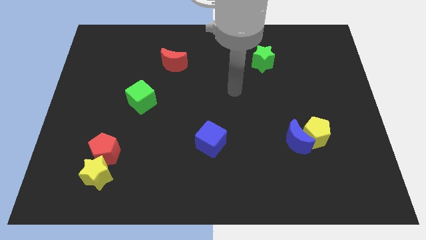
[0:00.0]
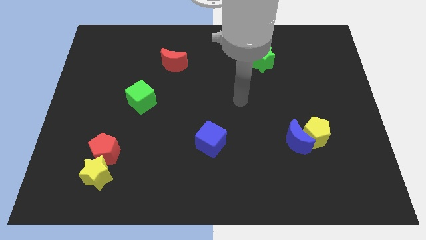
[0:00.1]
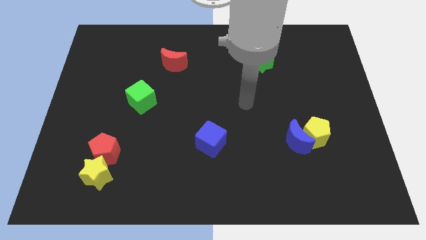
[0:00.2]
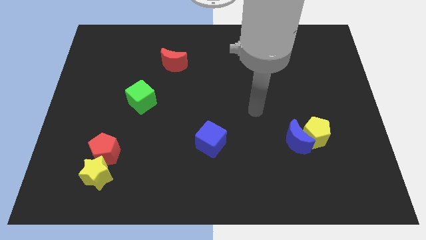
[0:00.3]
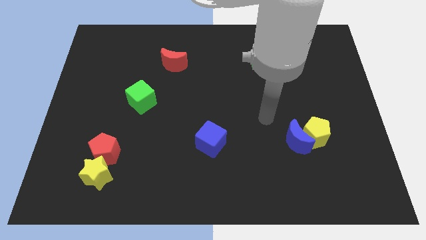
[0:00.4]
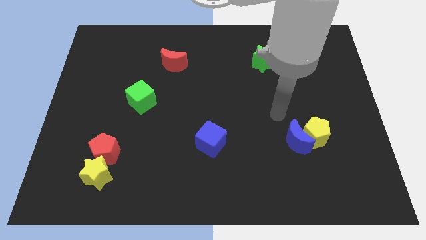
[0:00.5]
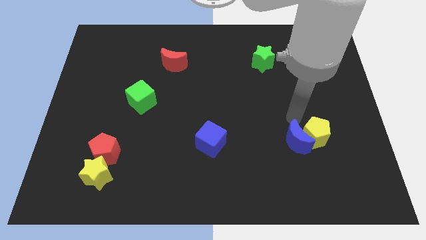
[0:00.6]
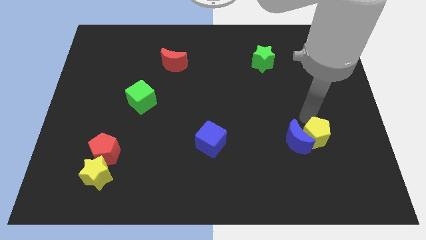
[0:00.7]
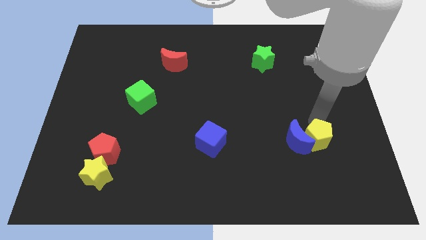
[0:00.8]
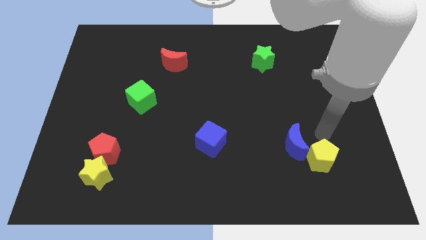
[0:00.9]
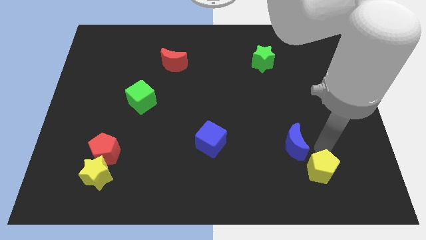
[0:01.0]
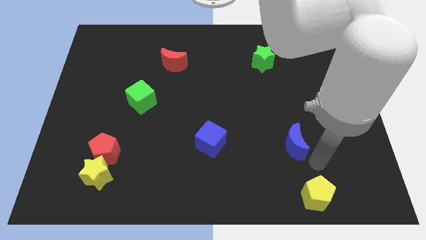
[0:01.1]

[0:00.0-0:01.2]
move the blue moon away from the yellow pentagon

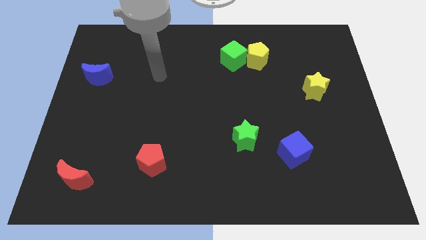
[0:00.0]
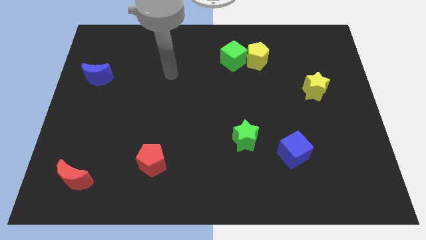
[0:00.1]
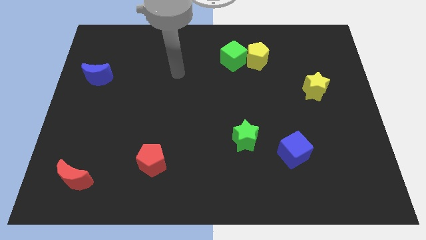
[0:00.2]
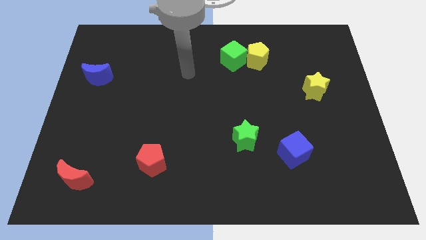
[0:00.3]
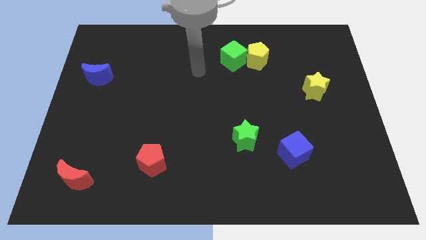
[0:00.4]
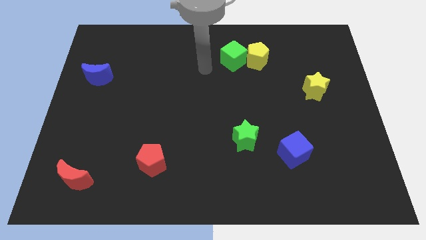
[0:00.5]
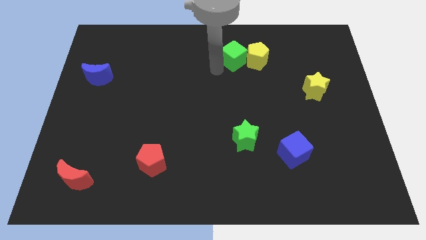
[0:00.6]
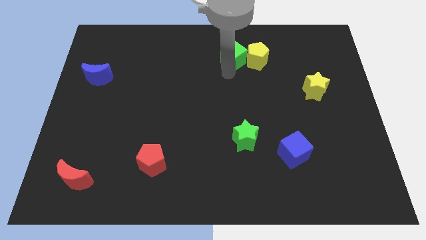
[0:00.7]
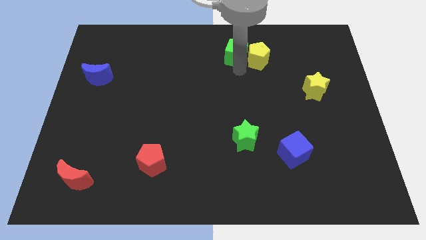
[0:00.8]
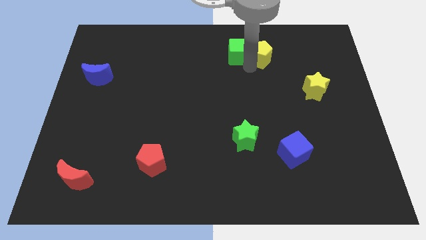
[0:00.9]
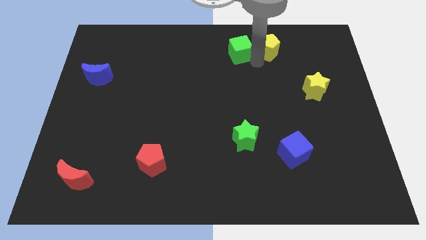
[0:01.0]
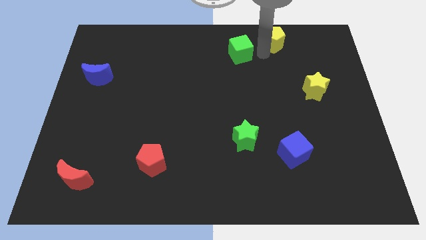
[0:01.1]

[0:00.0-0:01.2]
separate the green cube from the yellow pentagon

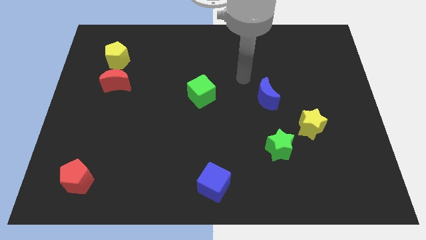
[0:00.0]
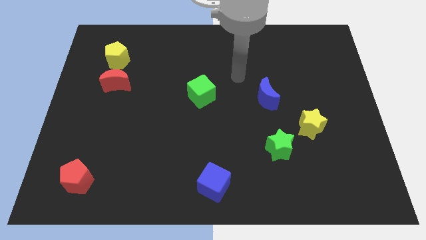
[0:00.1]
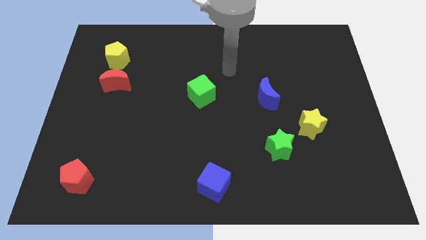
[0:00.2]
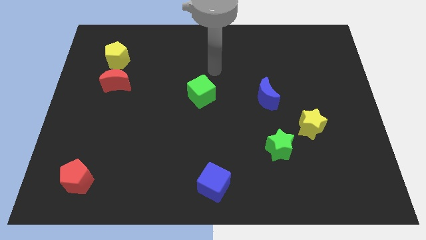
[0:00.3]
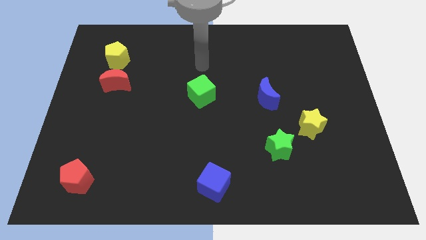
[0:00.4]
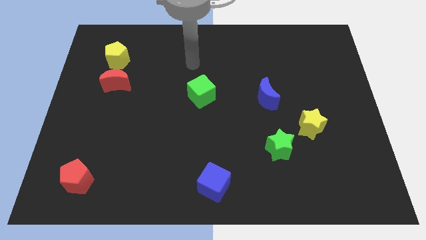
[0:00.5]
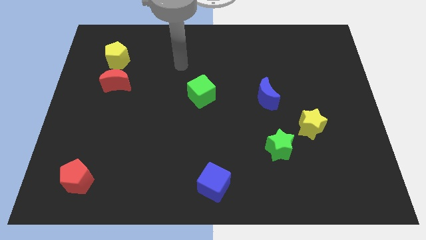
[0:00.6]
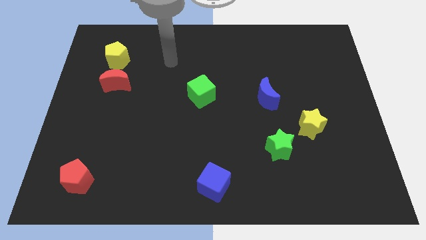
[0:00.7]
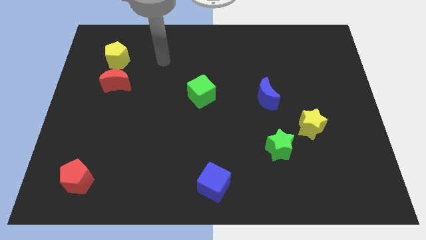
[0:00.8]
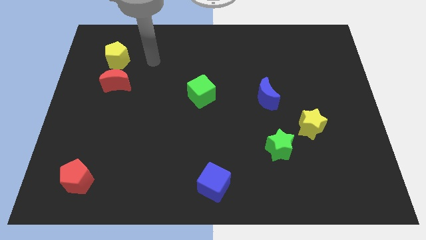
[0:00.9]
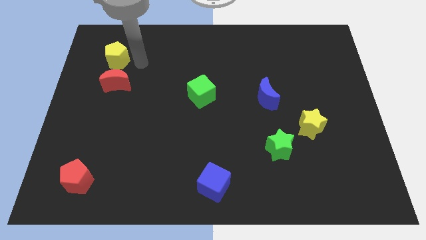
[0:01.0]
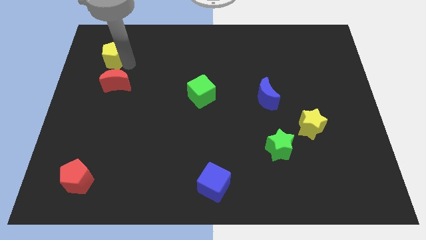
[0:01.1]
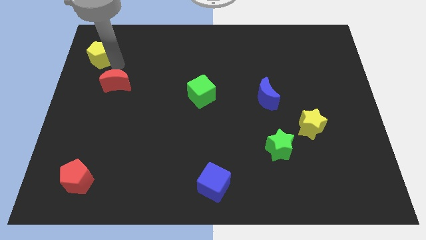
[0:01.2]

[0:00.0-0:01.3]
move the red moon away from the yellow pentagon

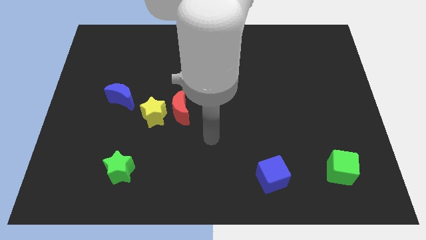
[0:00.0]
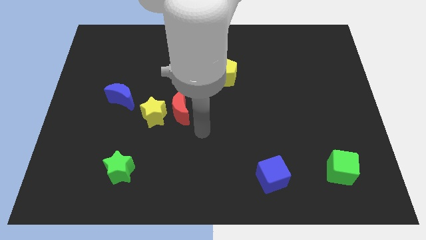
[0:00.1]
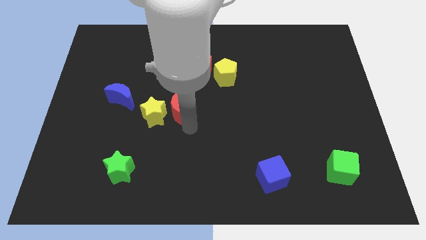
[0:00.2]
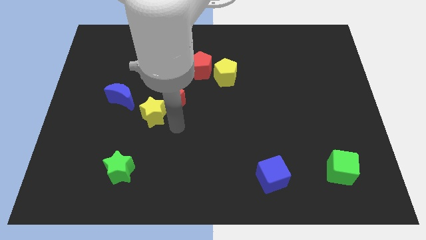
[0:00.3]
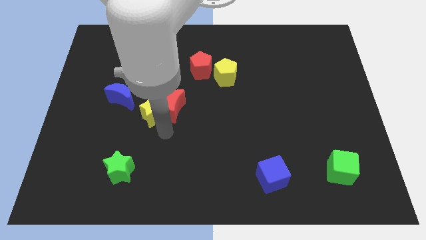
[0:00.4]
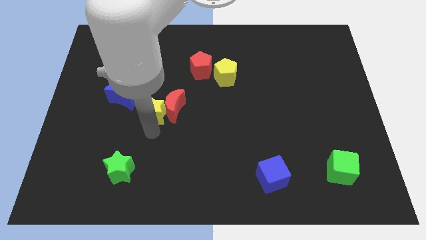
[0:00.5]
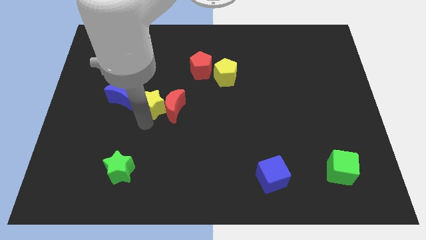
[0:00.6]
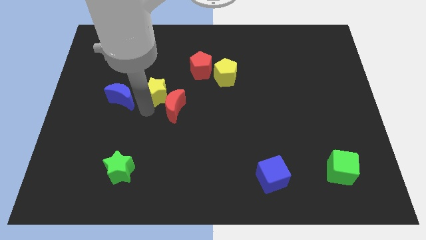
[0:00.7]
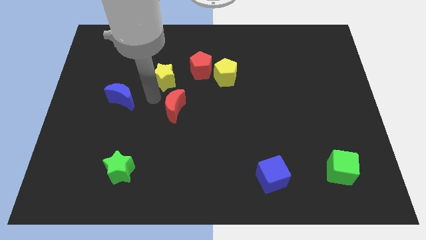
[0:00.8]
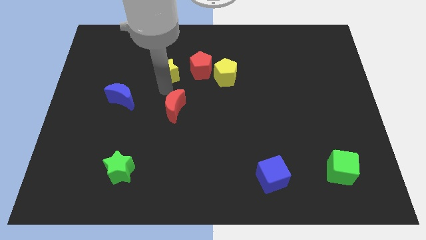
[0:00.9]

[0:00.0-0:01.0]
move the red moon away from the yellow star

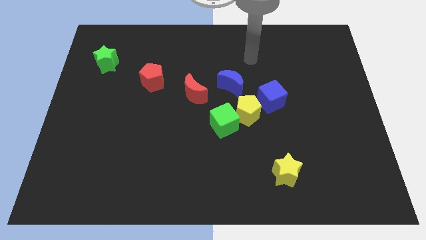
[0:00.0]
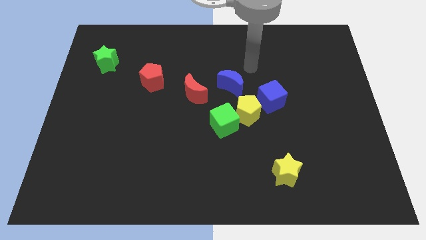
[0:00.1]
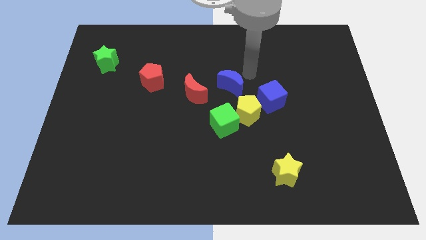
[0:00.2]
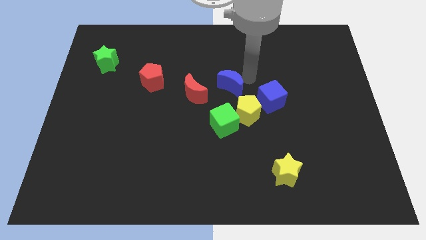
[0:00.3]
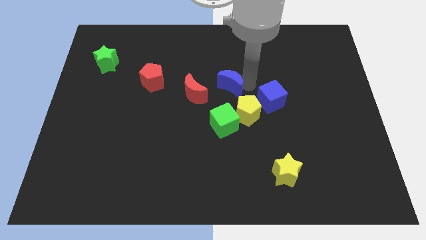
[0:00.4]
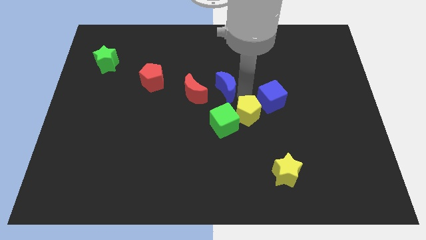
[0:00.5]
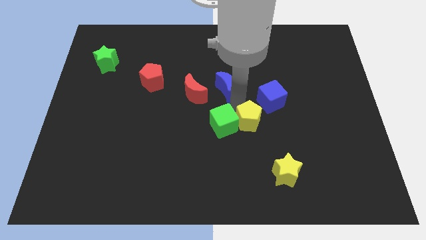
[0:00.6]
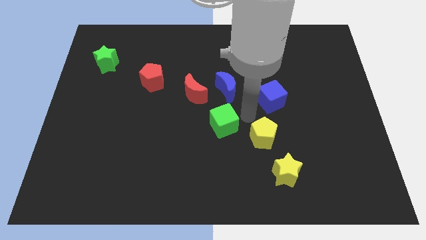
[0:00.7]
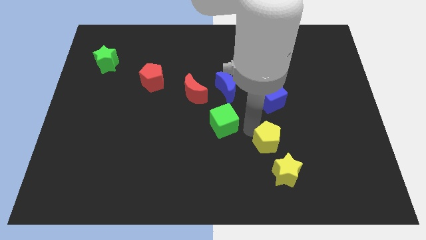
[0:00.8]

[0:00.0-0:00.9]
move the green cube away from the yellow pentagon

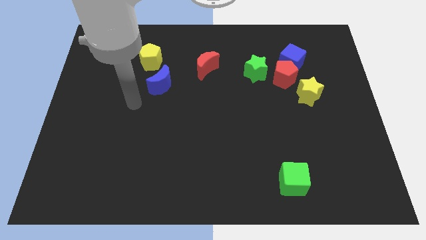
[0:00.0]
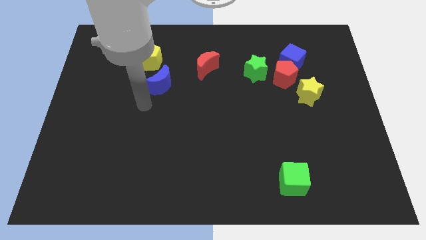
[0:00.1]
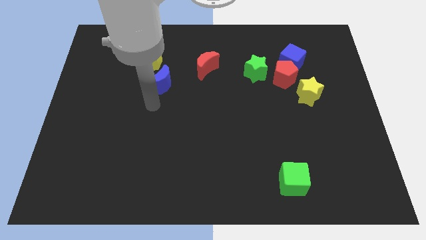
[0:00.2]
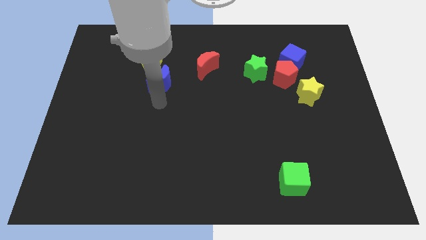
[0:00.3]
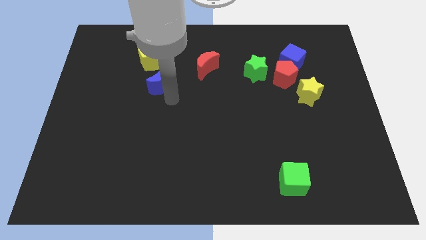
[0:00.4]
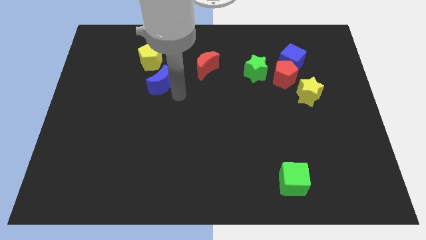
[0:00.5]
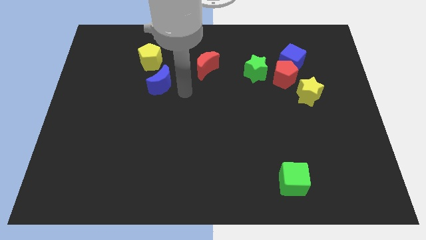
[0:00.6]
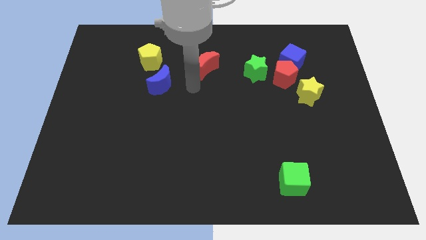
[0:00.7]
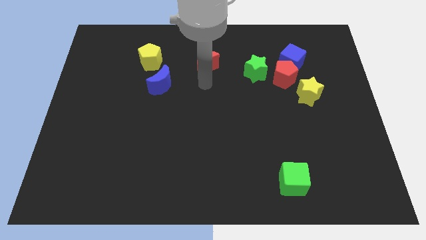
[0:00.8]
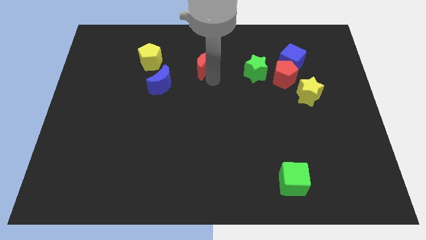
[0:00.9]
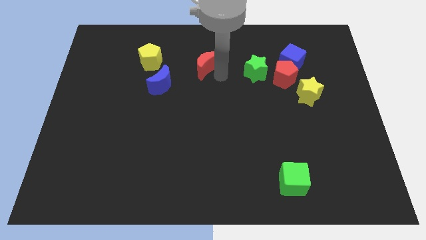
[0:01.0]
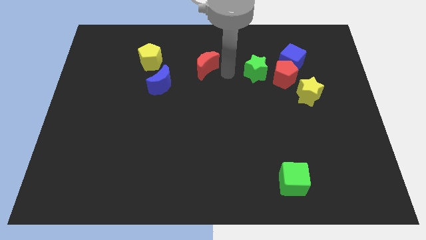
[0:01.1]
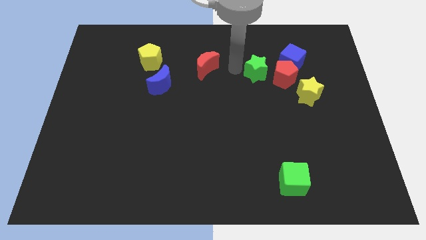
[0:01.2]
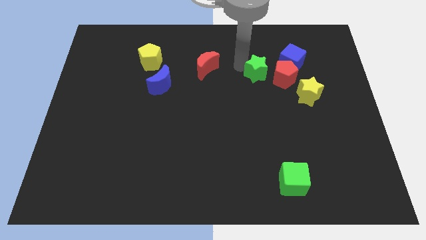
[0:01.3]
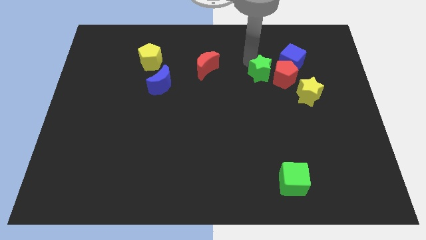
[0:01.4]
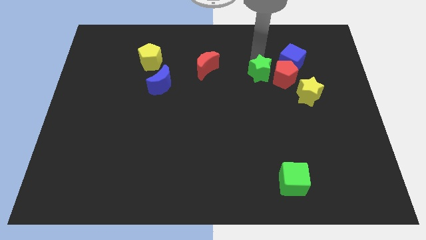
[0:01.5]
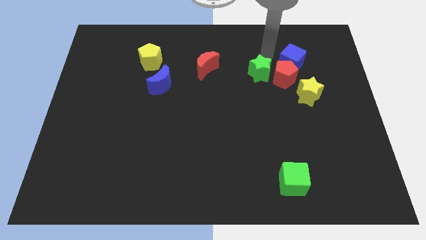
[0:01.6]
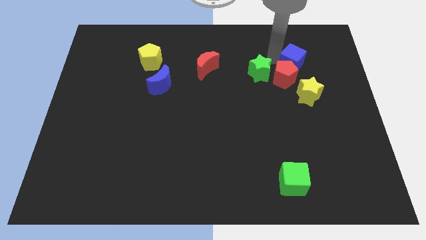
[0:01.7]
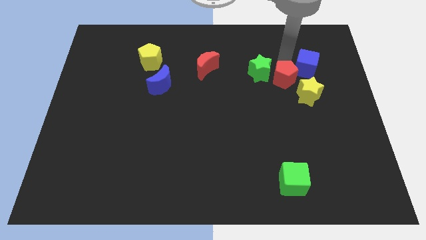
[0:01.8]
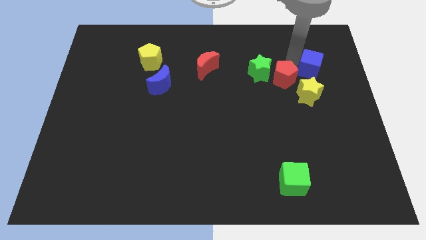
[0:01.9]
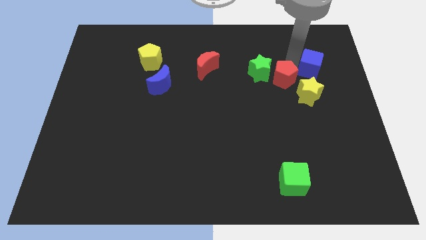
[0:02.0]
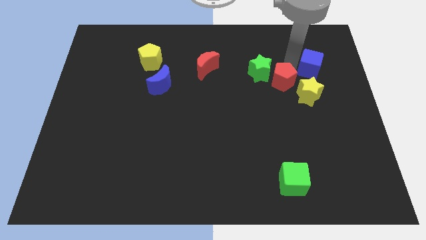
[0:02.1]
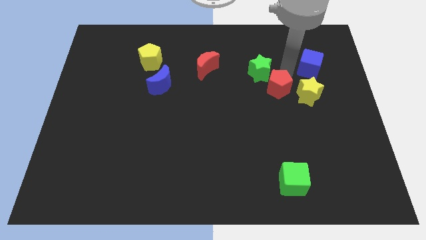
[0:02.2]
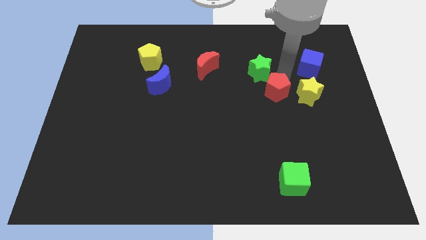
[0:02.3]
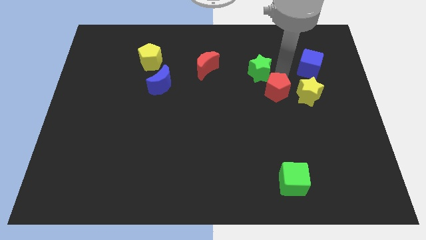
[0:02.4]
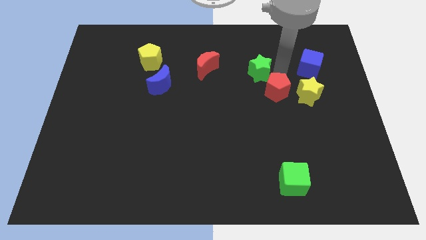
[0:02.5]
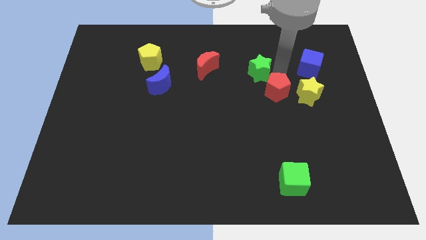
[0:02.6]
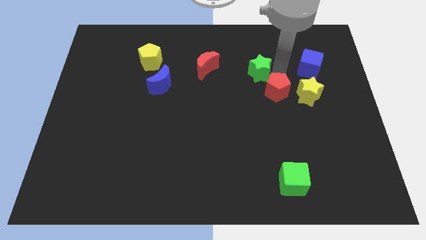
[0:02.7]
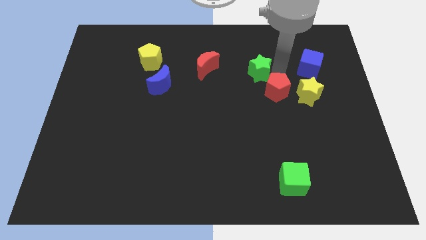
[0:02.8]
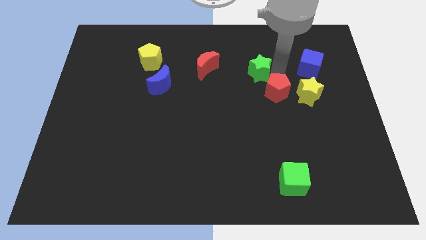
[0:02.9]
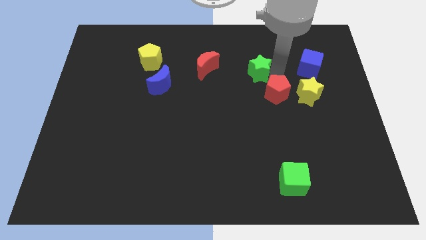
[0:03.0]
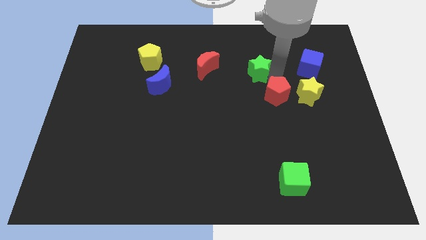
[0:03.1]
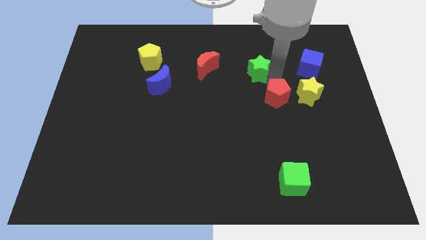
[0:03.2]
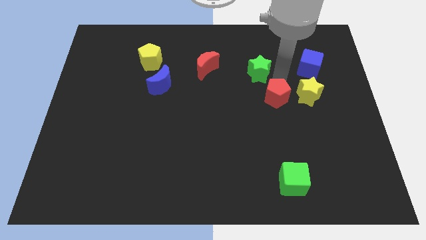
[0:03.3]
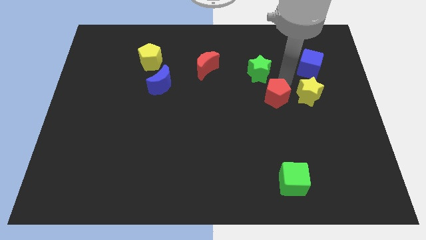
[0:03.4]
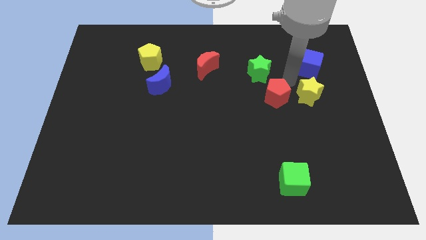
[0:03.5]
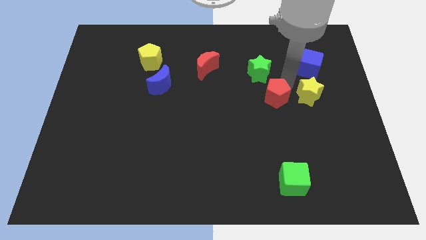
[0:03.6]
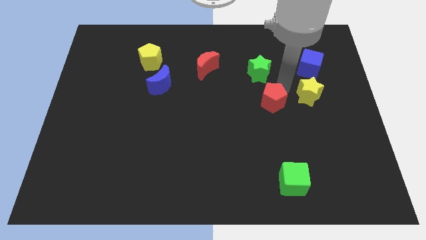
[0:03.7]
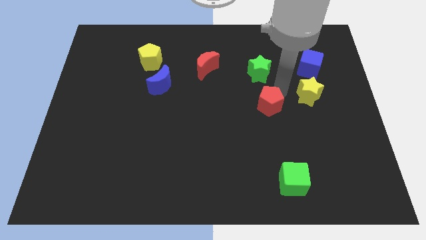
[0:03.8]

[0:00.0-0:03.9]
move the red pentagon away from the clump

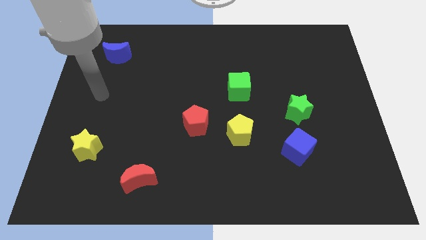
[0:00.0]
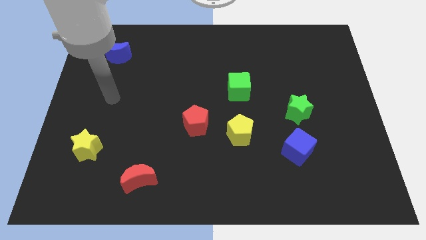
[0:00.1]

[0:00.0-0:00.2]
move the red pentagon away from the yellow pentagon
